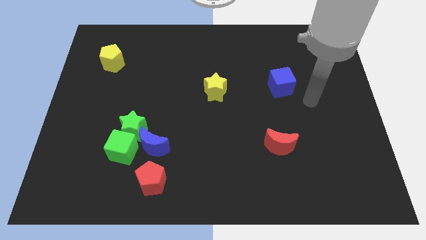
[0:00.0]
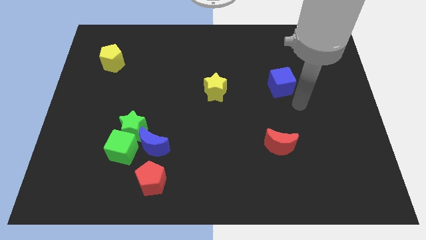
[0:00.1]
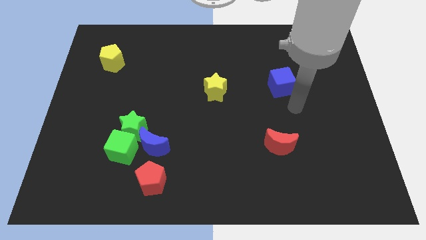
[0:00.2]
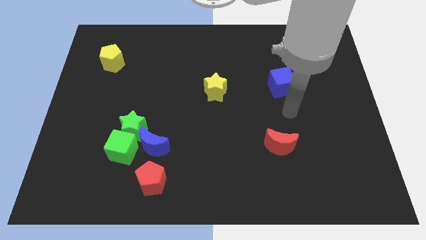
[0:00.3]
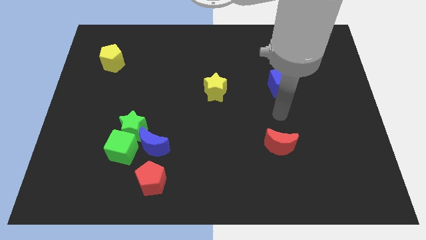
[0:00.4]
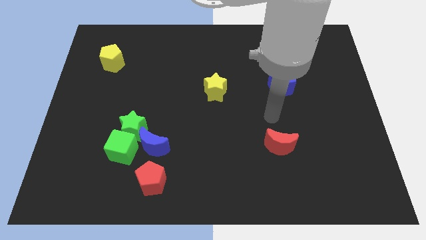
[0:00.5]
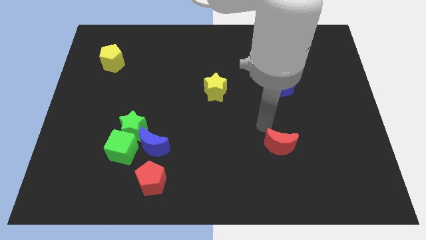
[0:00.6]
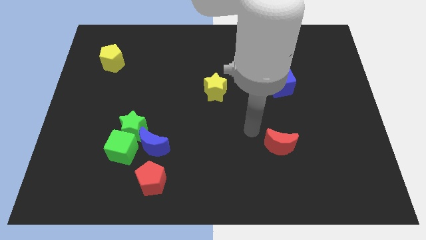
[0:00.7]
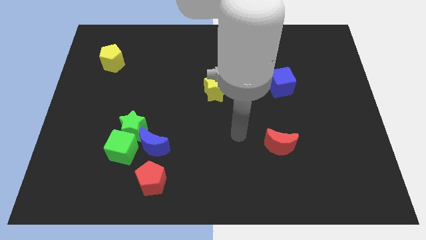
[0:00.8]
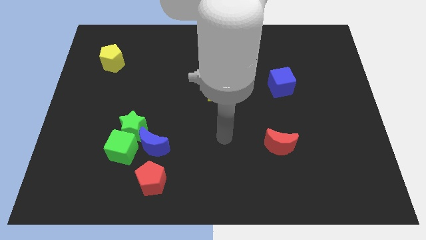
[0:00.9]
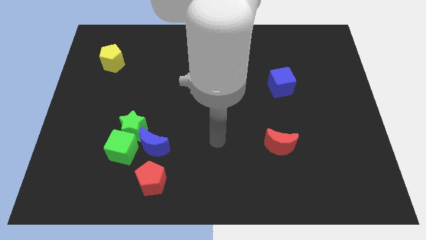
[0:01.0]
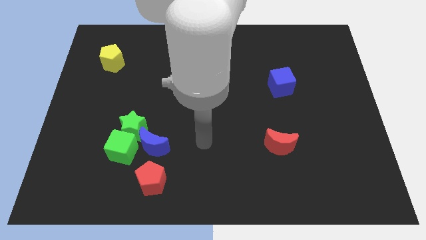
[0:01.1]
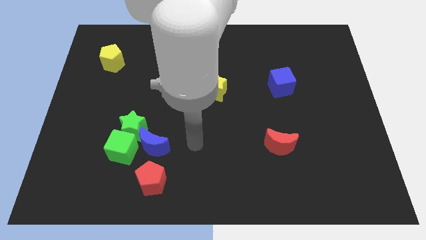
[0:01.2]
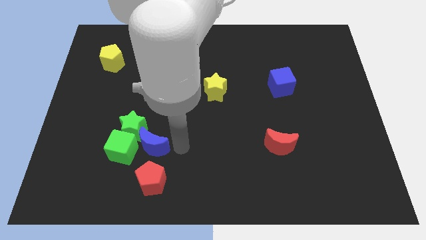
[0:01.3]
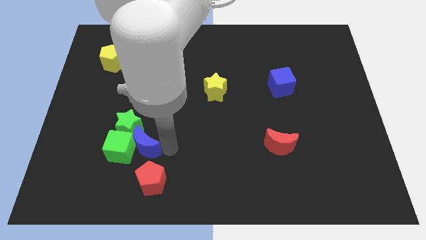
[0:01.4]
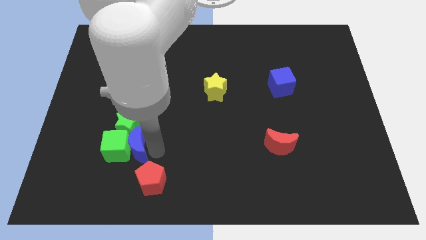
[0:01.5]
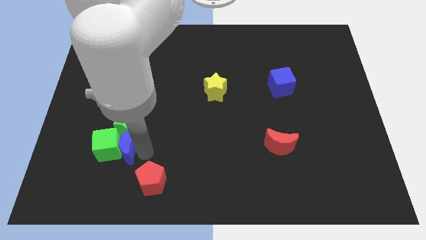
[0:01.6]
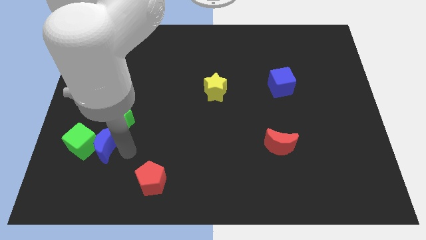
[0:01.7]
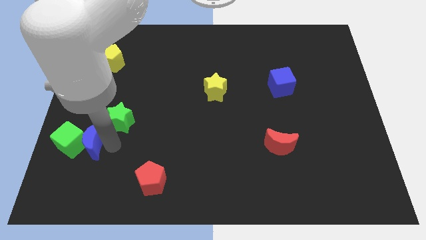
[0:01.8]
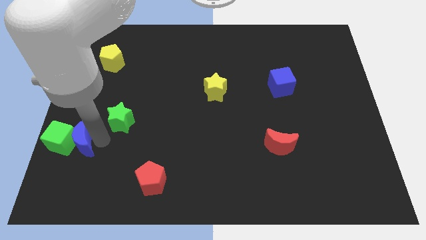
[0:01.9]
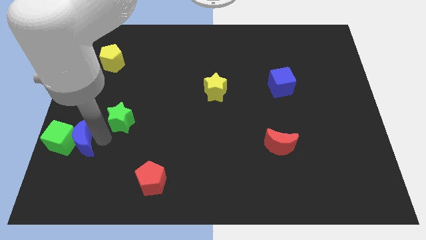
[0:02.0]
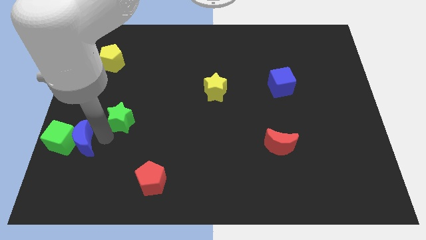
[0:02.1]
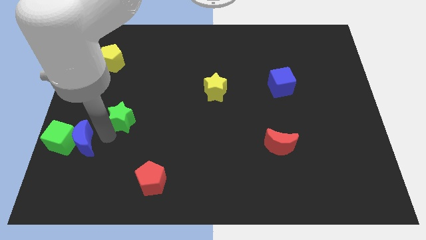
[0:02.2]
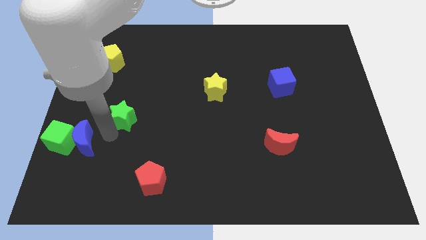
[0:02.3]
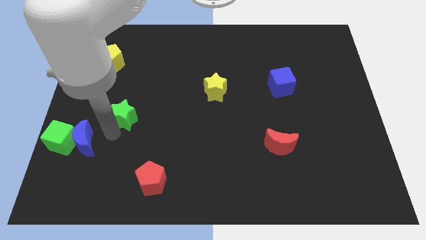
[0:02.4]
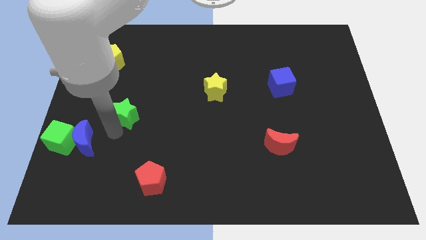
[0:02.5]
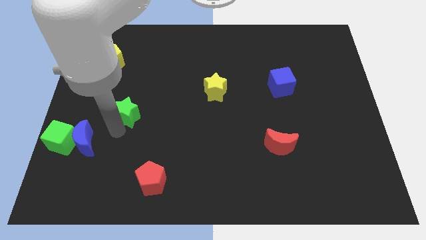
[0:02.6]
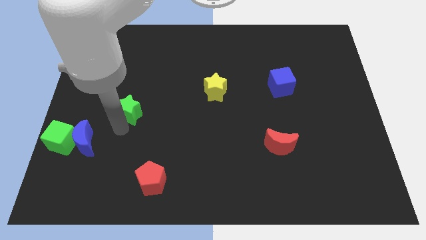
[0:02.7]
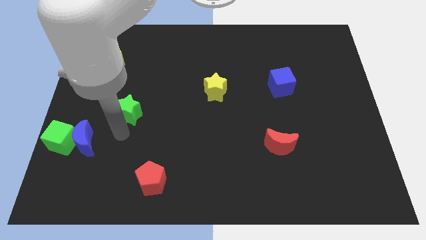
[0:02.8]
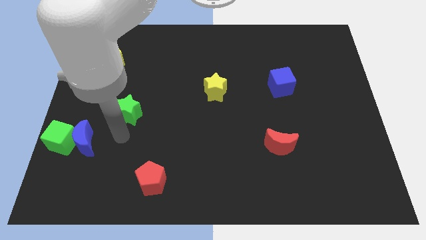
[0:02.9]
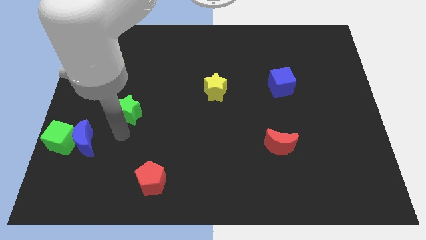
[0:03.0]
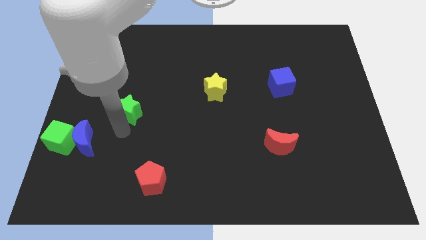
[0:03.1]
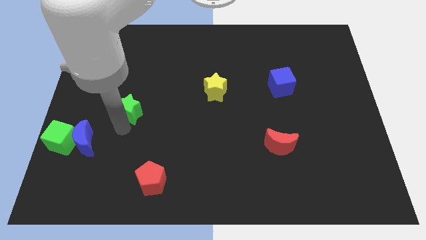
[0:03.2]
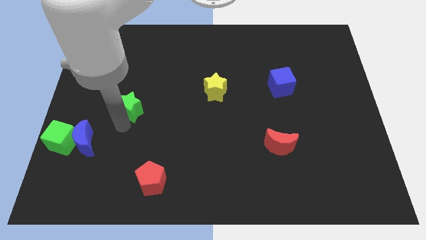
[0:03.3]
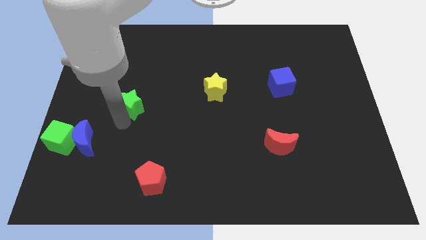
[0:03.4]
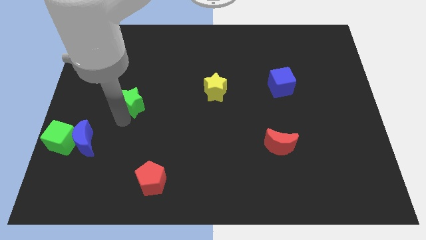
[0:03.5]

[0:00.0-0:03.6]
slide the green star somewhat upwards

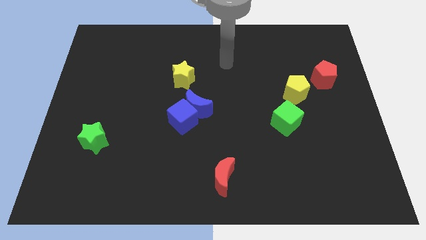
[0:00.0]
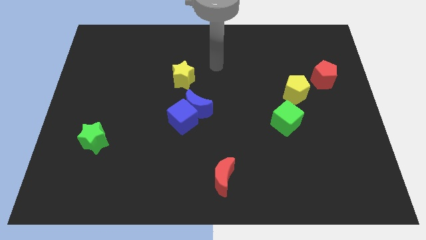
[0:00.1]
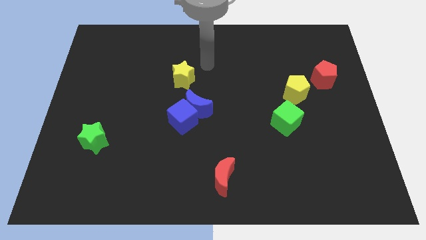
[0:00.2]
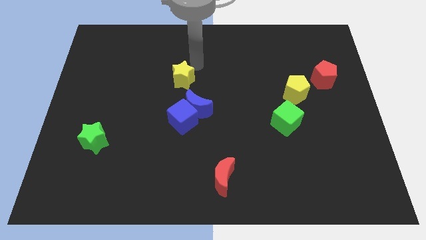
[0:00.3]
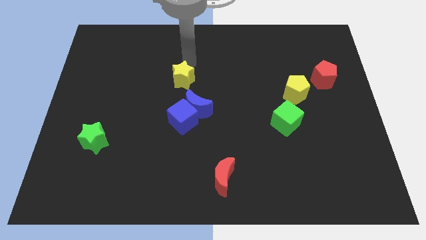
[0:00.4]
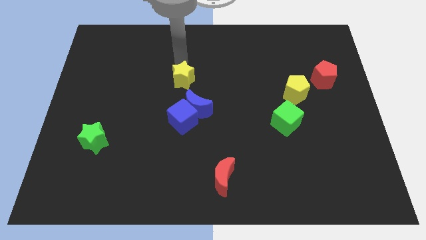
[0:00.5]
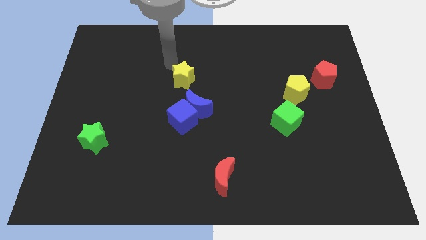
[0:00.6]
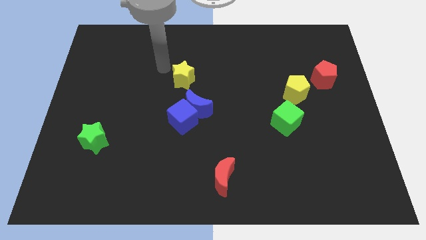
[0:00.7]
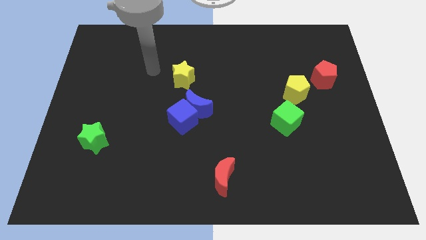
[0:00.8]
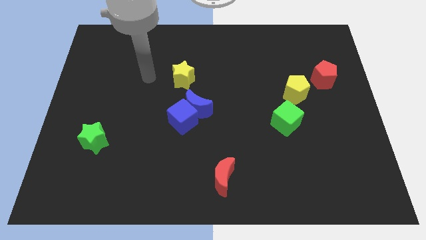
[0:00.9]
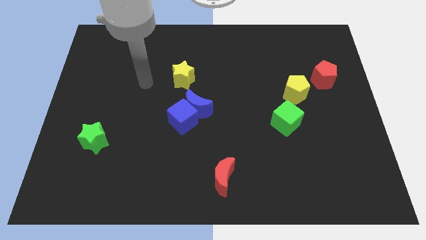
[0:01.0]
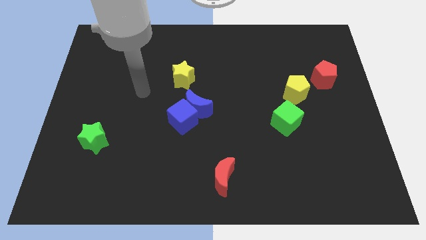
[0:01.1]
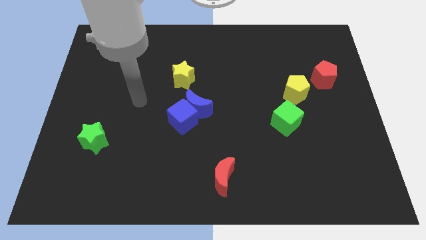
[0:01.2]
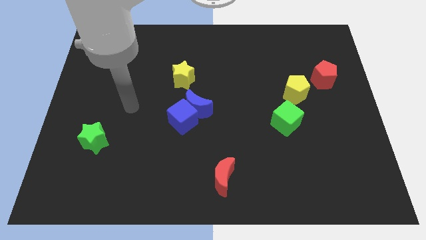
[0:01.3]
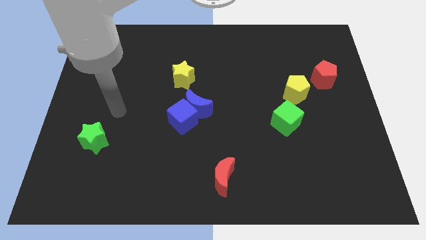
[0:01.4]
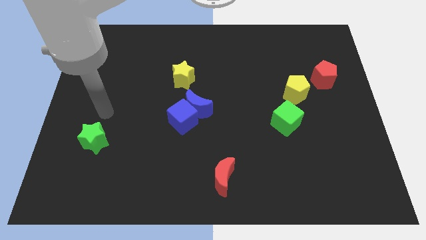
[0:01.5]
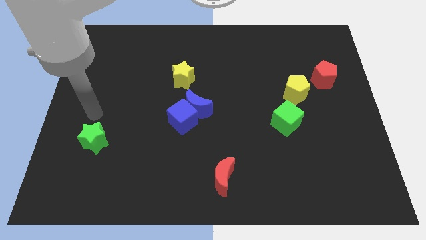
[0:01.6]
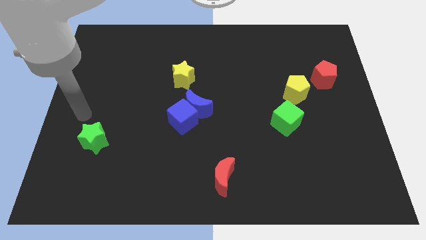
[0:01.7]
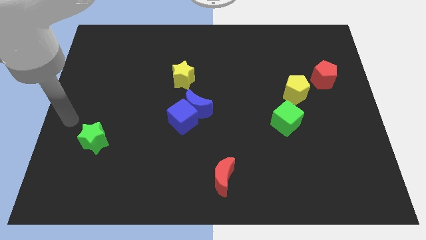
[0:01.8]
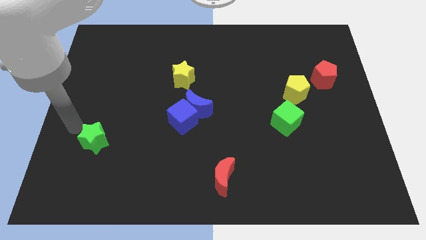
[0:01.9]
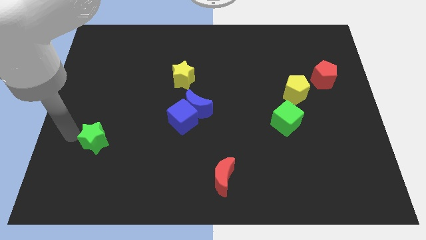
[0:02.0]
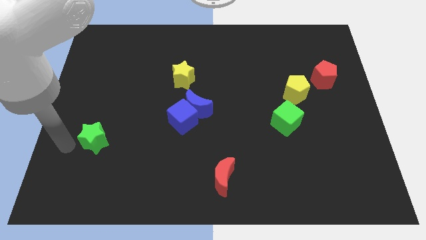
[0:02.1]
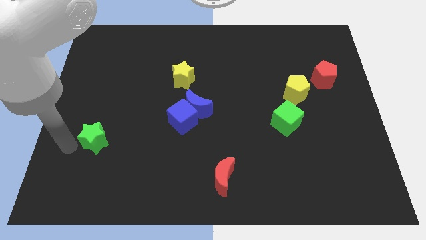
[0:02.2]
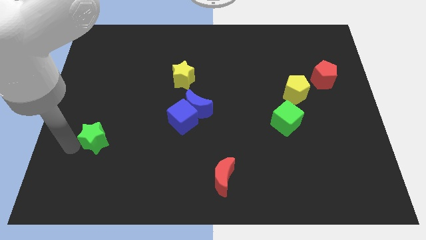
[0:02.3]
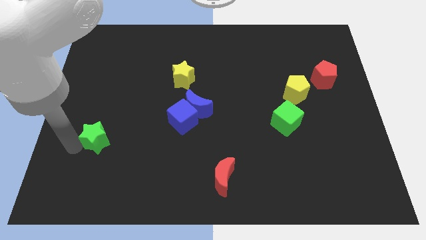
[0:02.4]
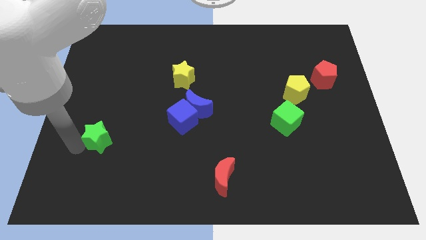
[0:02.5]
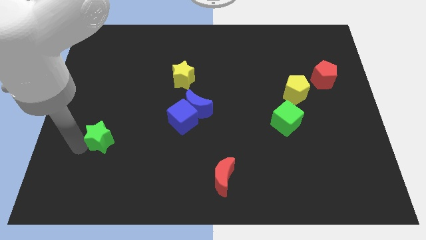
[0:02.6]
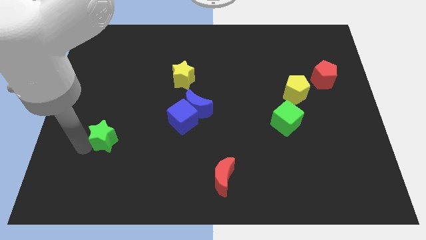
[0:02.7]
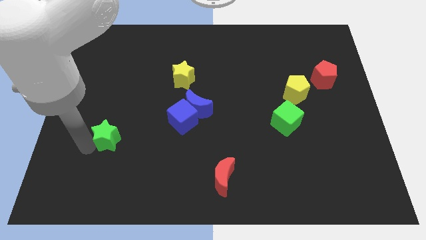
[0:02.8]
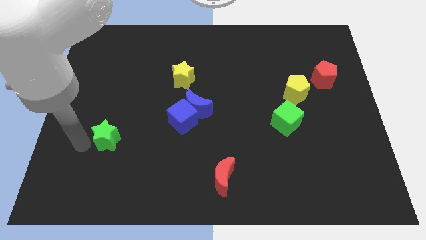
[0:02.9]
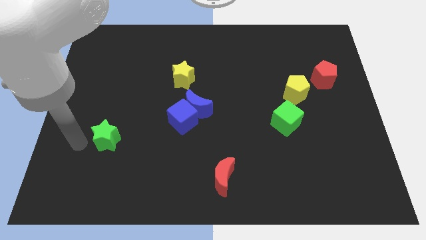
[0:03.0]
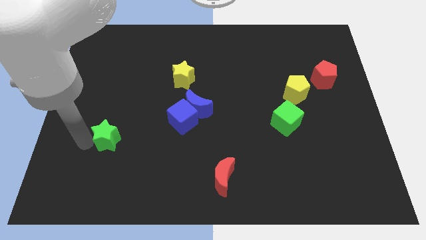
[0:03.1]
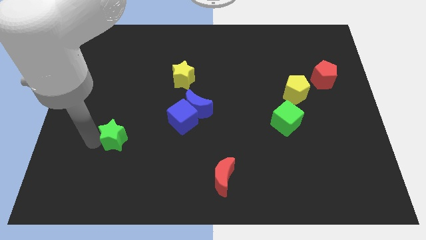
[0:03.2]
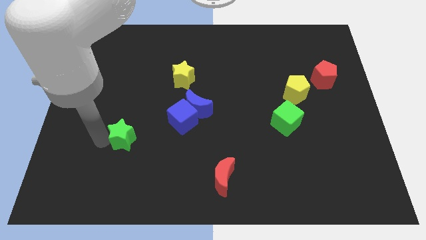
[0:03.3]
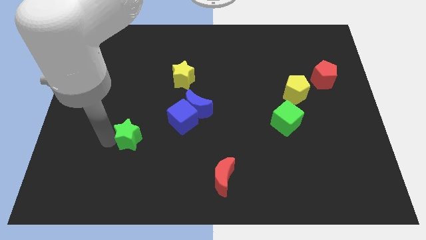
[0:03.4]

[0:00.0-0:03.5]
slide the green star a little to the right

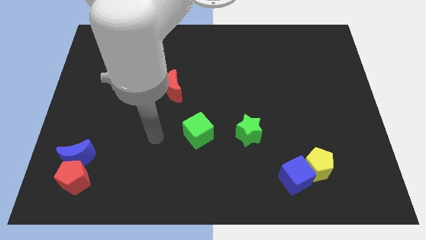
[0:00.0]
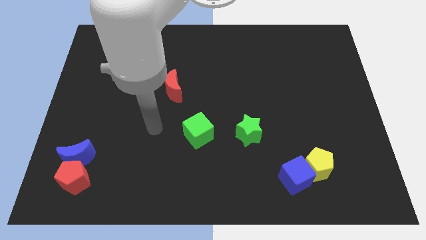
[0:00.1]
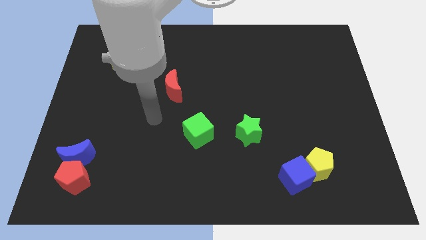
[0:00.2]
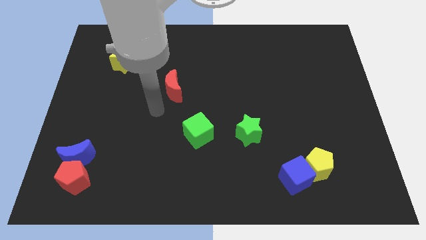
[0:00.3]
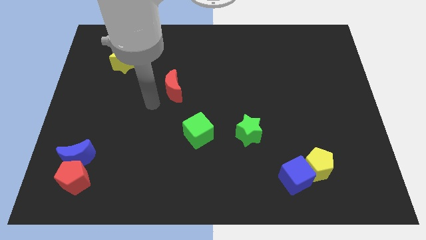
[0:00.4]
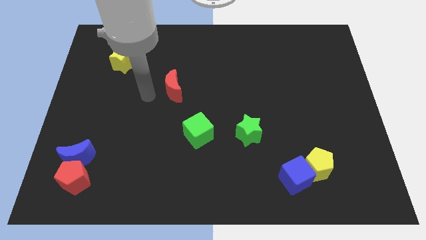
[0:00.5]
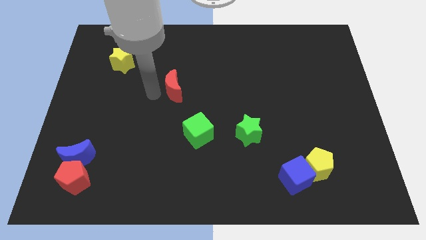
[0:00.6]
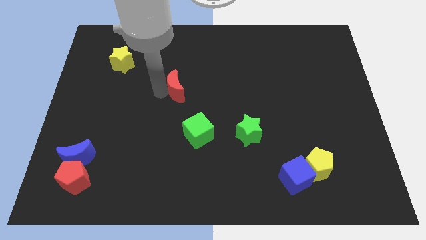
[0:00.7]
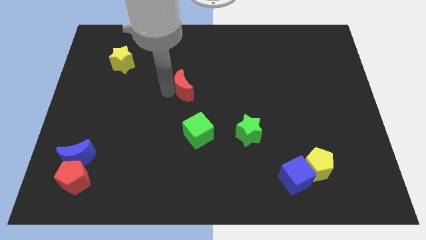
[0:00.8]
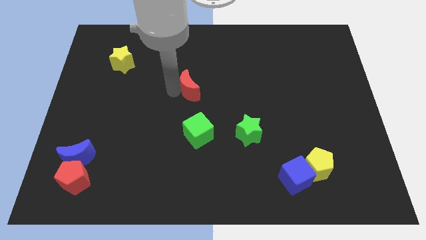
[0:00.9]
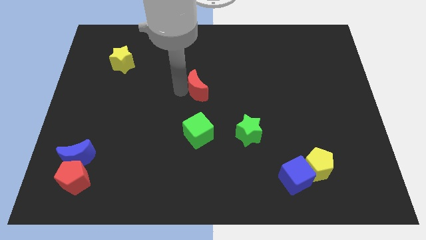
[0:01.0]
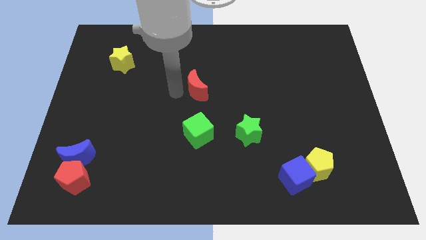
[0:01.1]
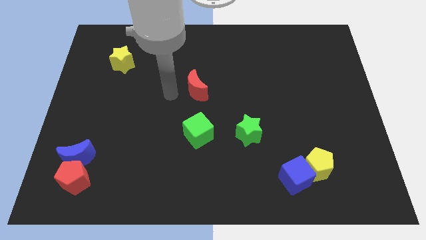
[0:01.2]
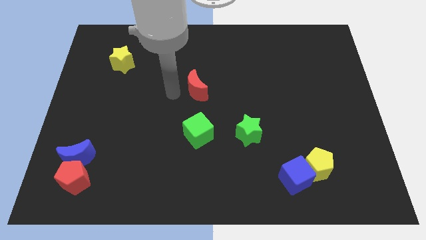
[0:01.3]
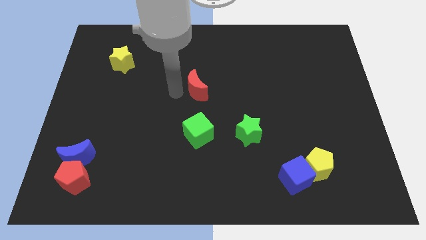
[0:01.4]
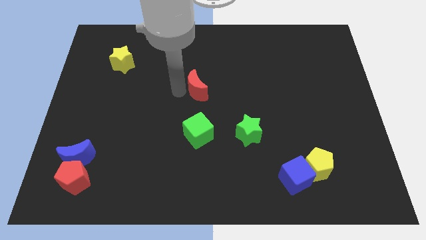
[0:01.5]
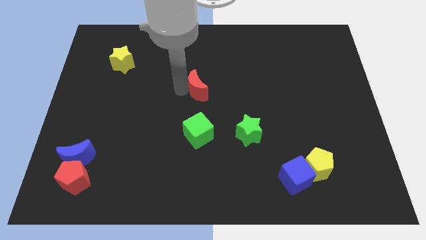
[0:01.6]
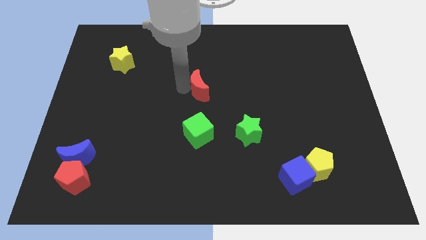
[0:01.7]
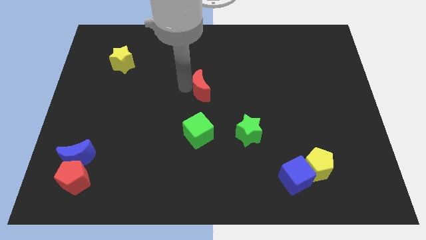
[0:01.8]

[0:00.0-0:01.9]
slightly move the red moon right
